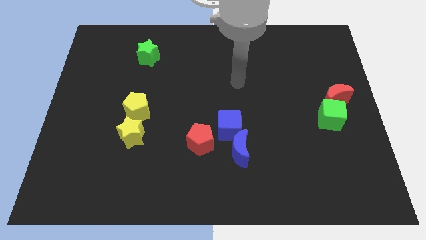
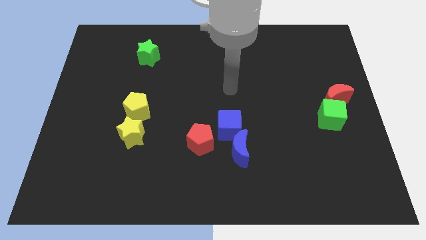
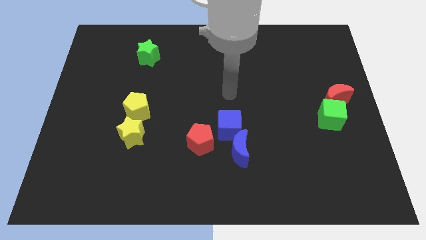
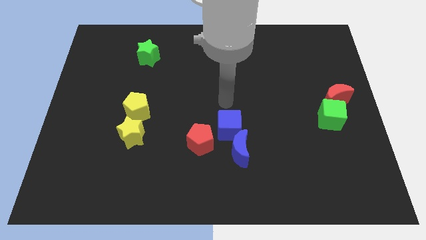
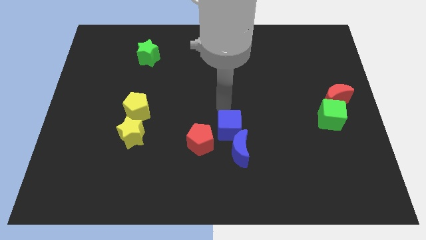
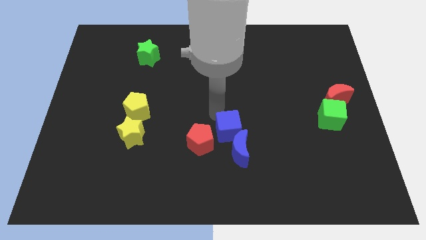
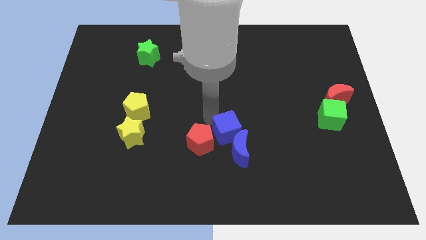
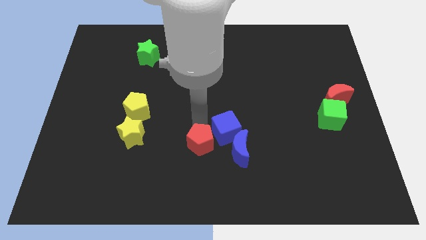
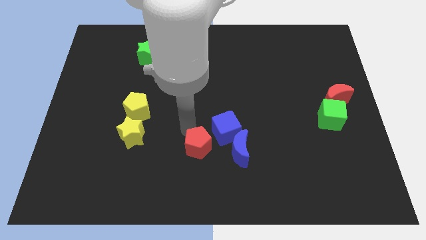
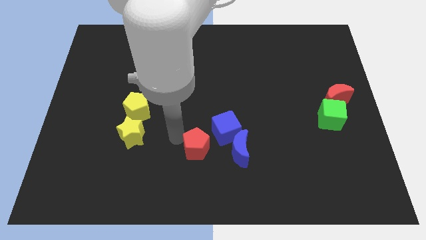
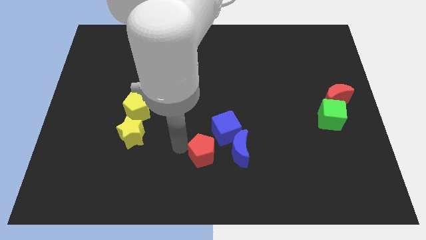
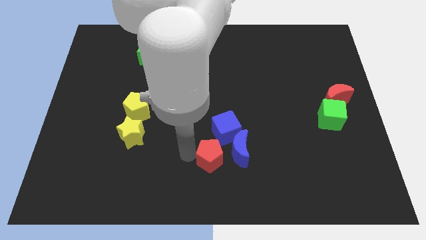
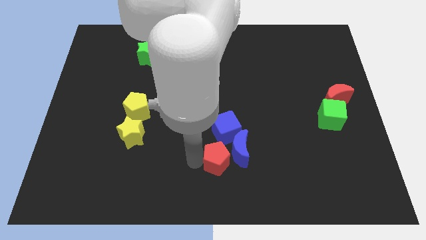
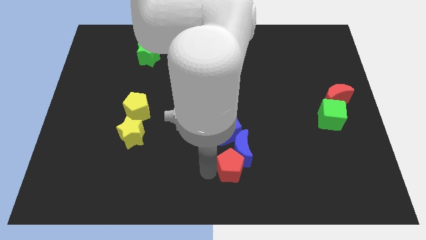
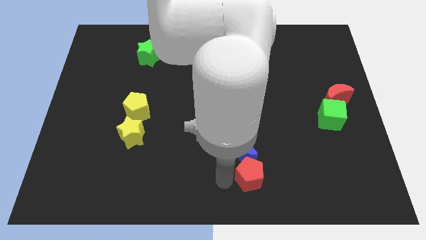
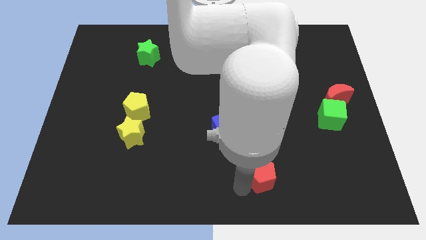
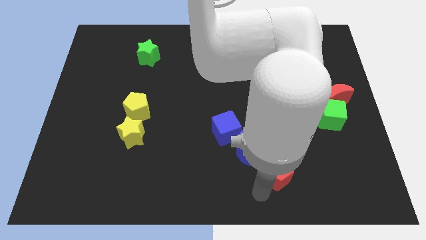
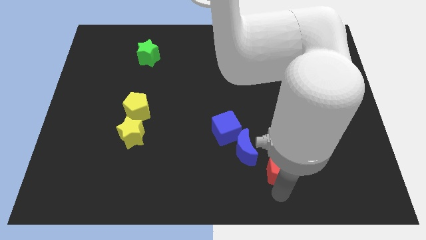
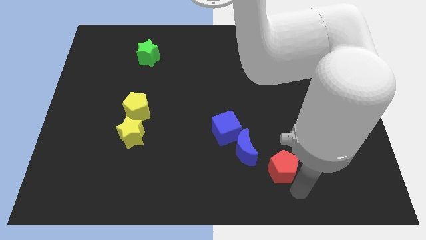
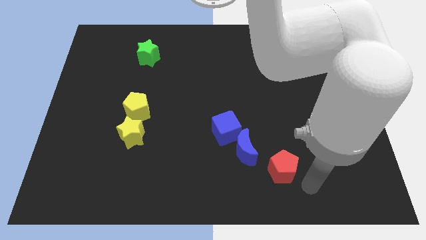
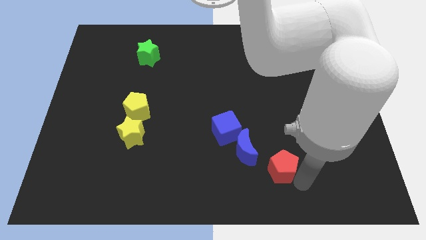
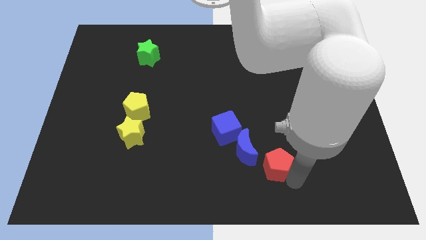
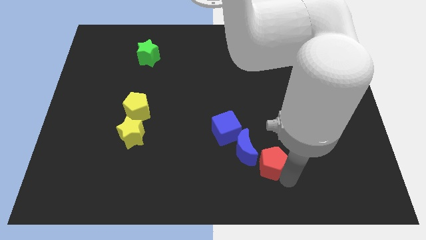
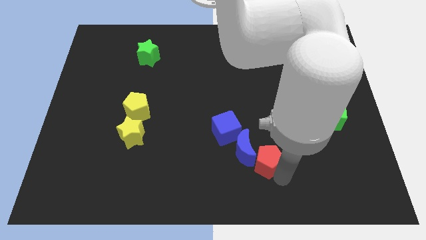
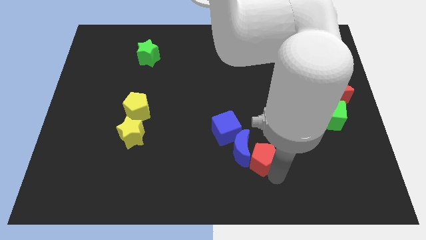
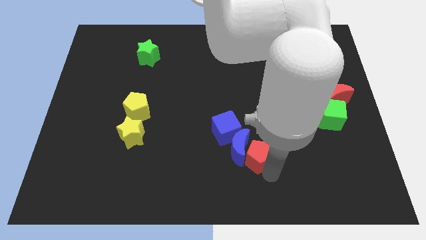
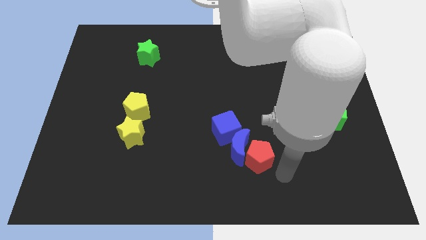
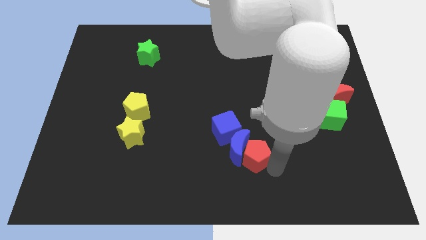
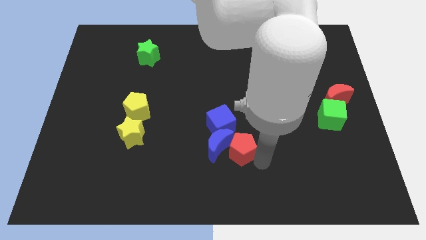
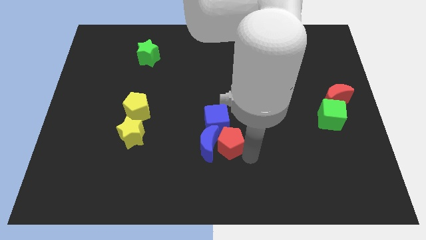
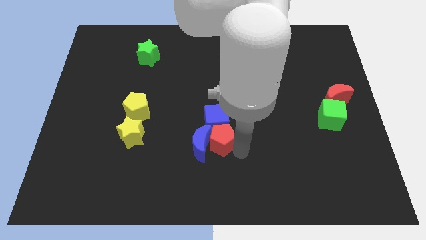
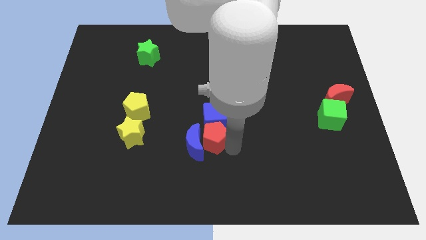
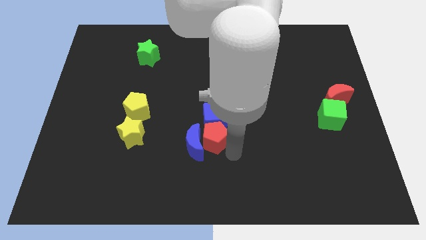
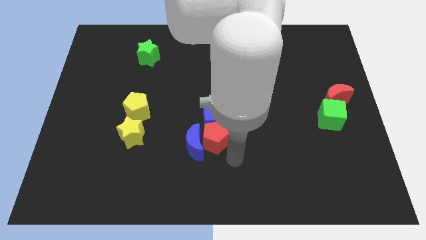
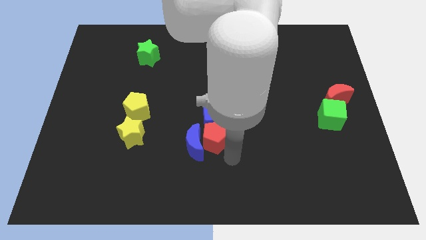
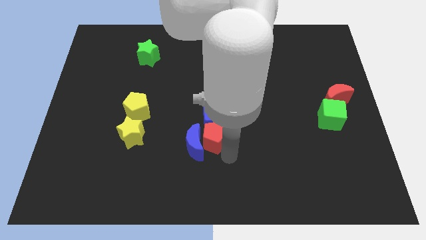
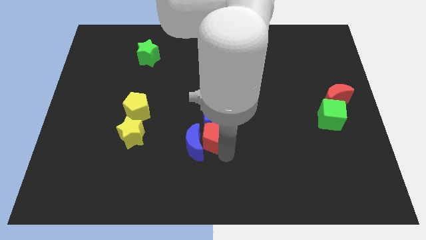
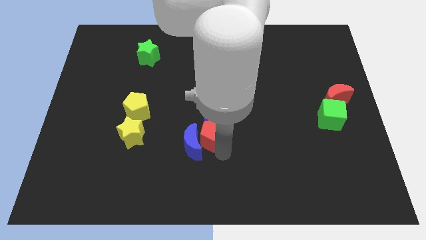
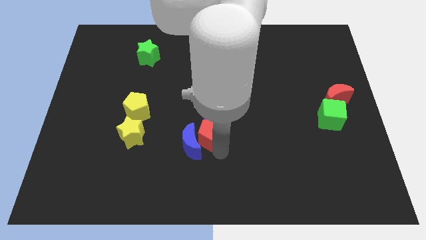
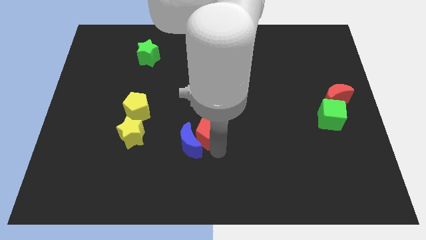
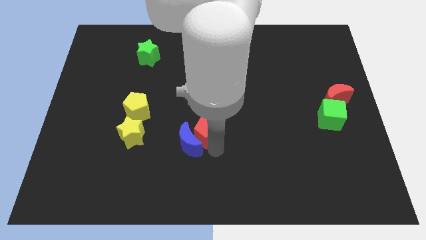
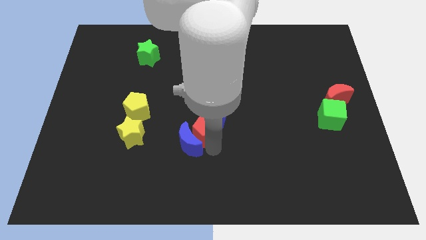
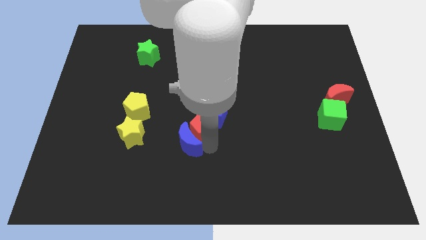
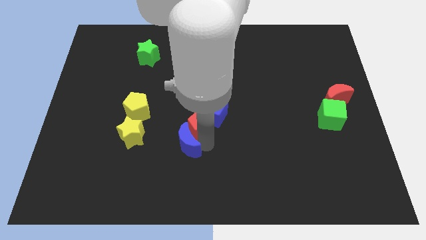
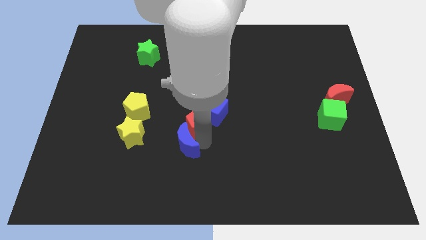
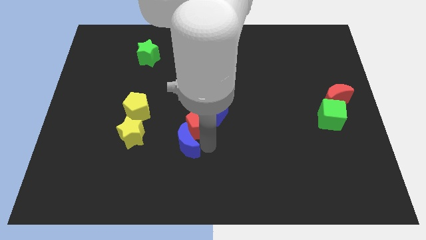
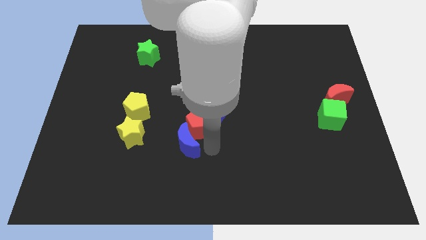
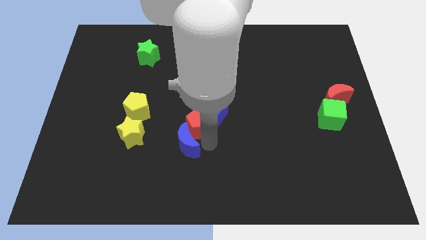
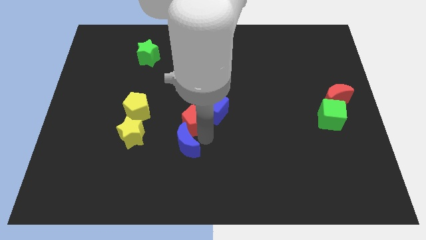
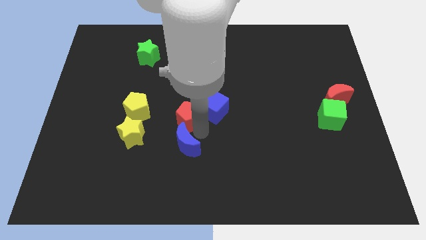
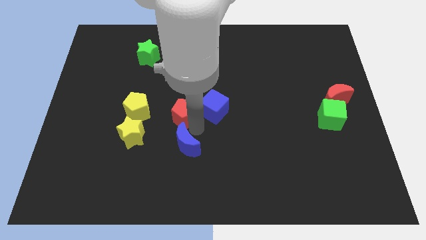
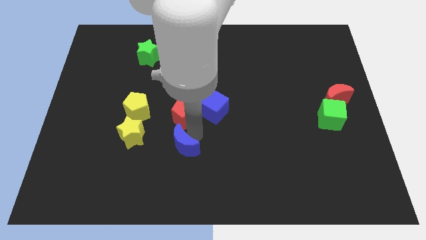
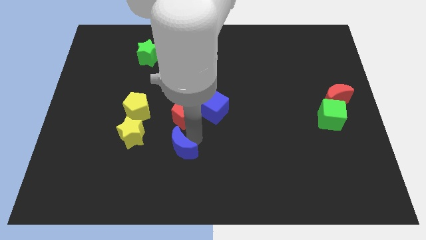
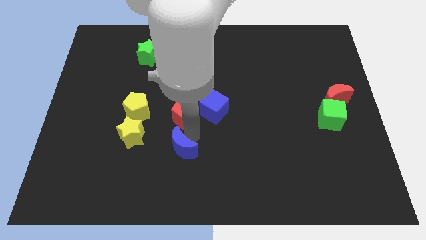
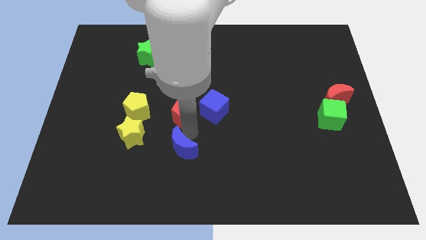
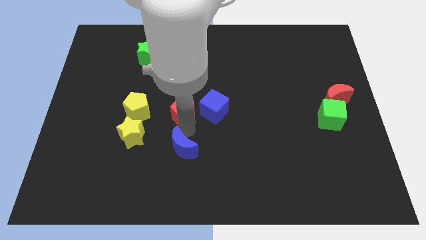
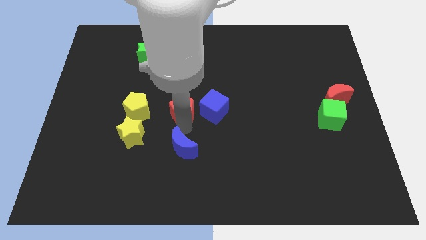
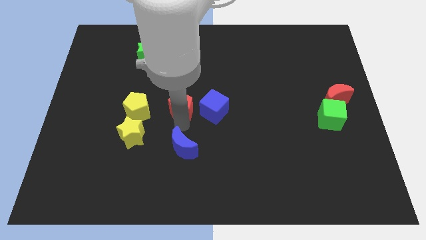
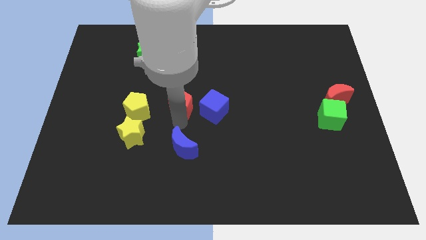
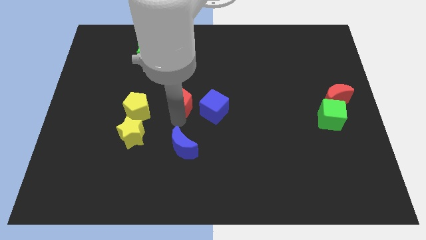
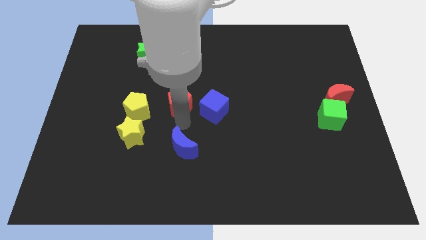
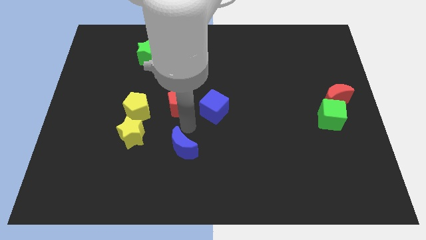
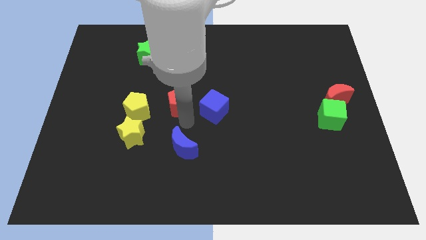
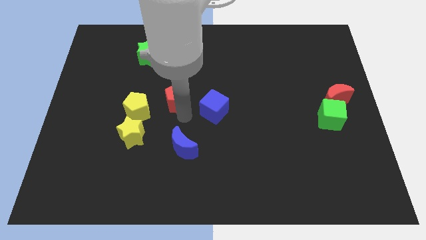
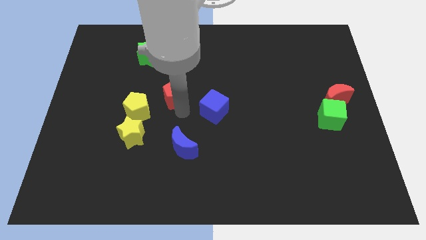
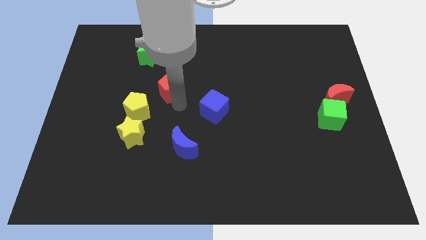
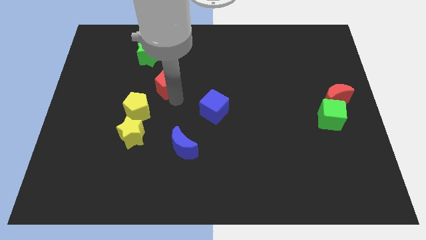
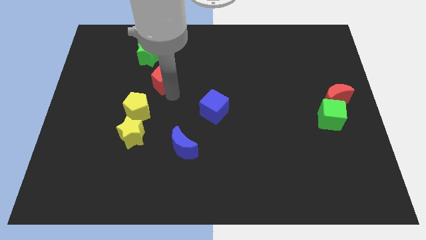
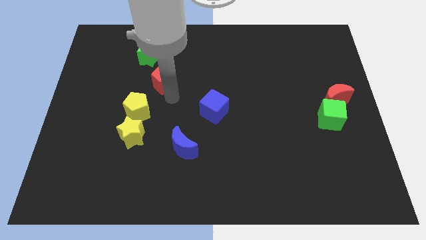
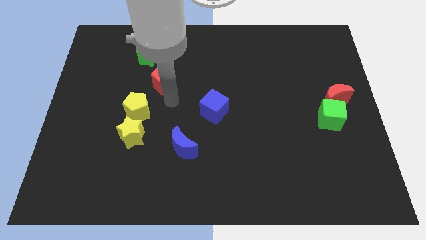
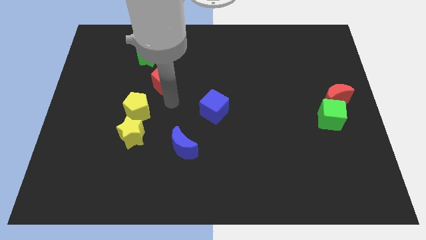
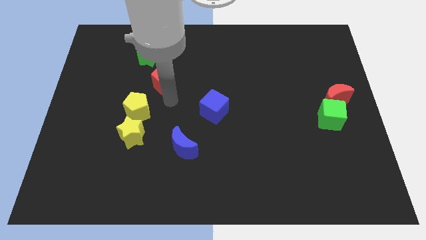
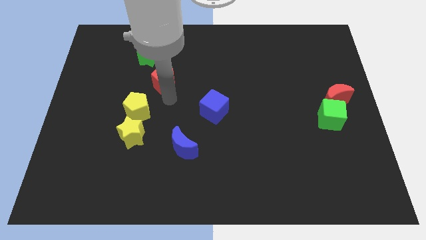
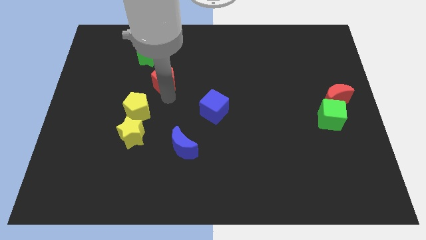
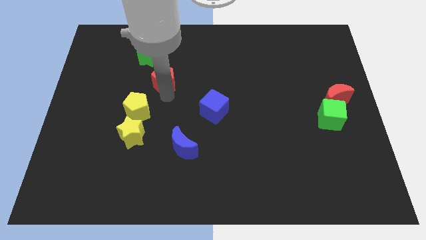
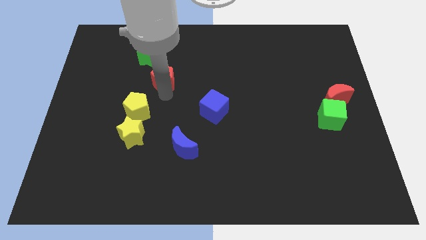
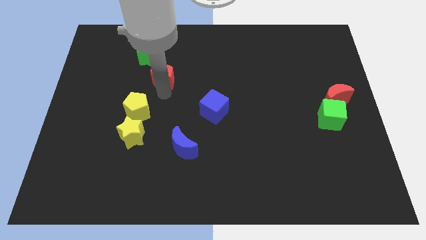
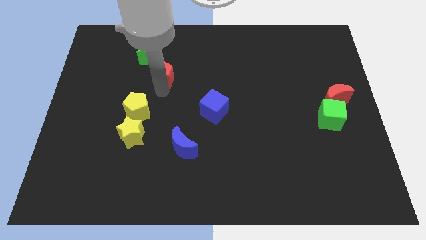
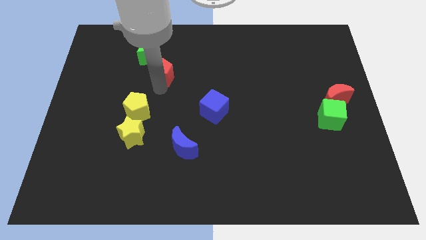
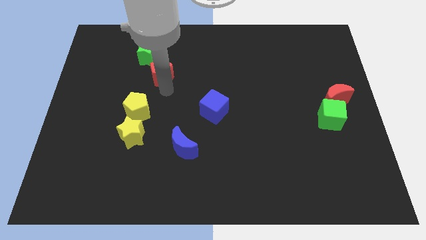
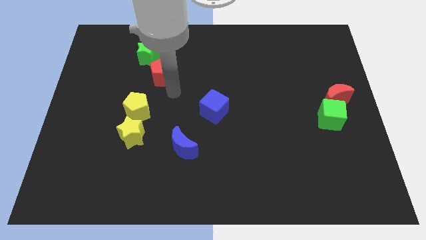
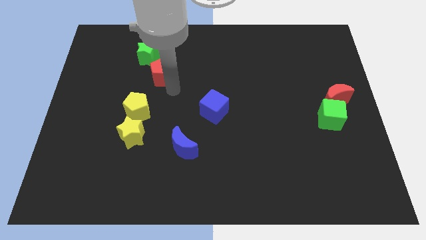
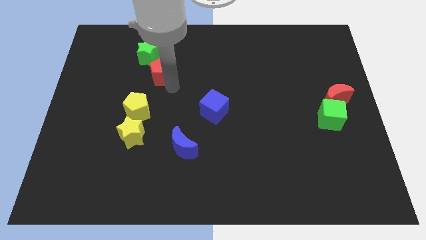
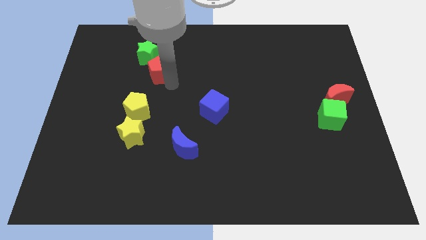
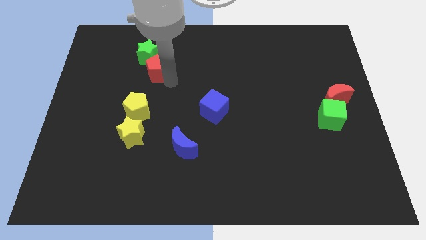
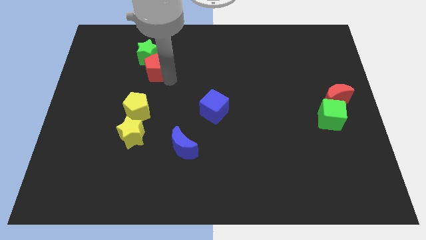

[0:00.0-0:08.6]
move the red pentagon to the green star
